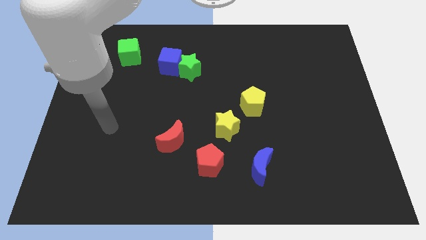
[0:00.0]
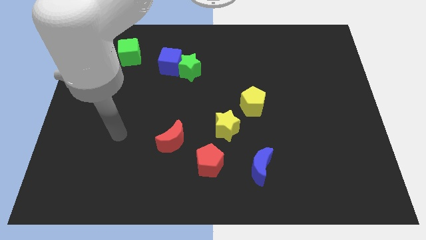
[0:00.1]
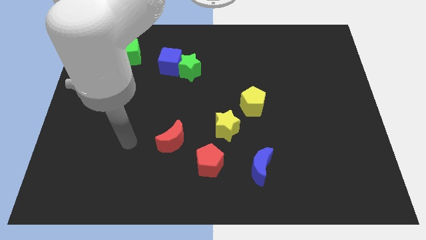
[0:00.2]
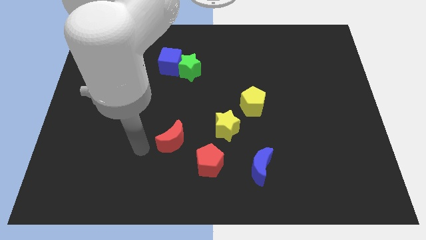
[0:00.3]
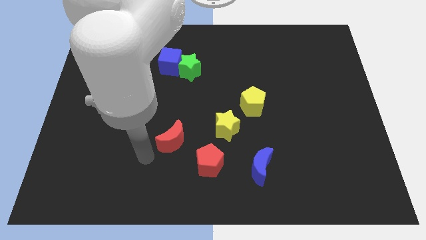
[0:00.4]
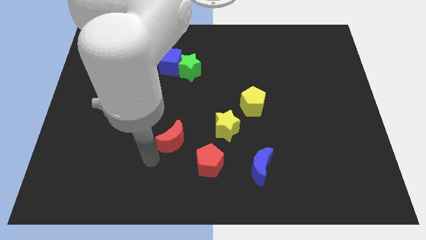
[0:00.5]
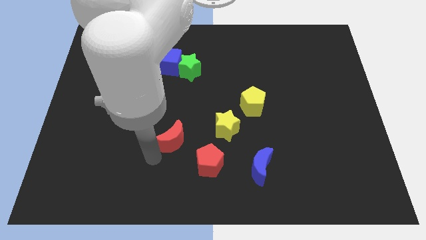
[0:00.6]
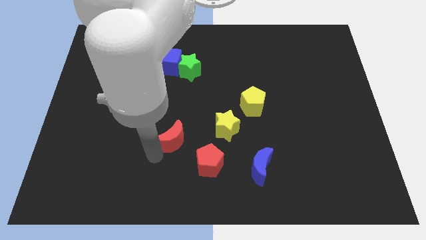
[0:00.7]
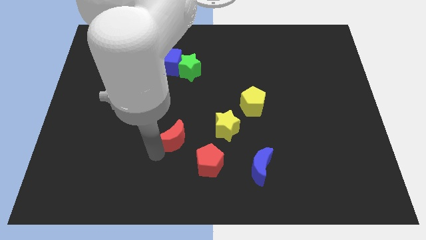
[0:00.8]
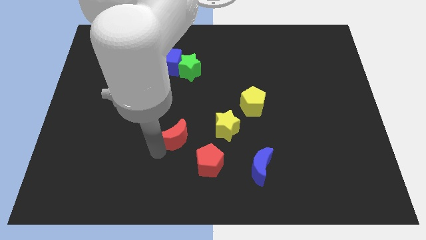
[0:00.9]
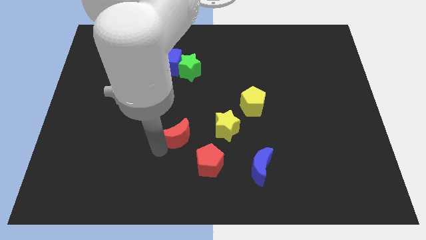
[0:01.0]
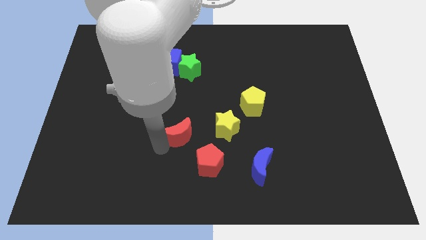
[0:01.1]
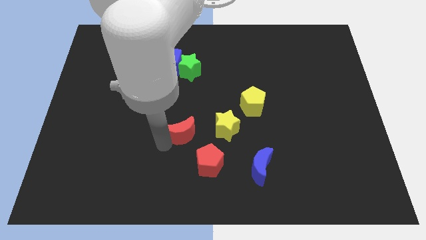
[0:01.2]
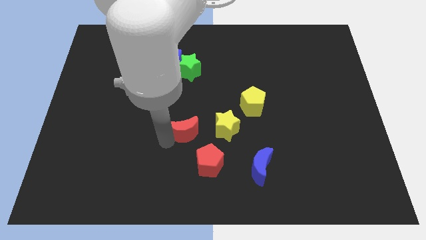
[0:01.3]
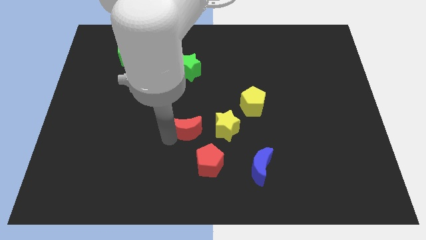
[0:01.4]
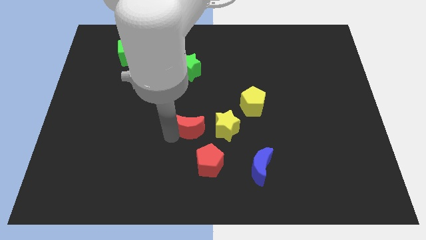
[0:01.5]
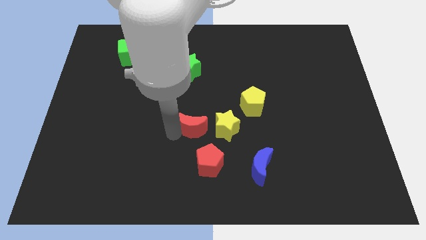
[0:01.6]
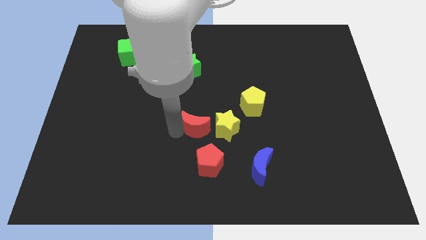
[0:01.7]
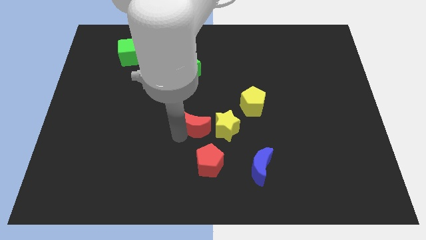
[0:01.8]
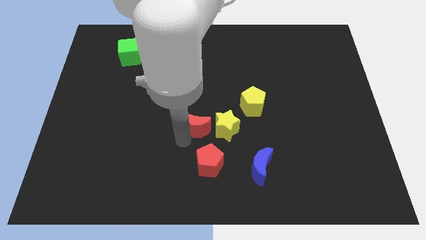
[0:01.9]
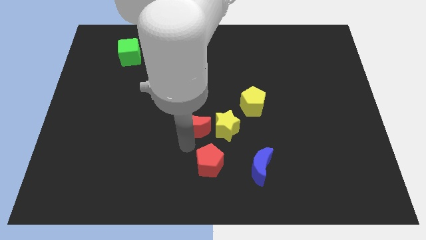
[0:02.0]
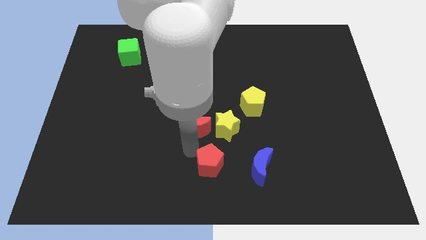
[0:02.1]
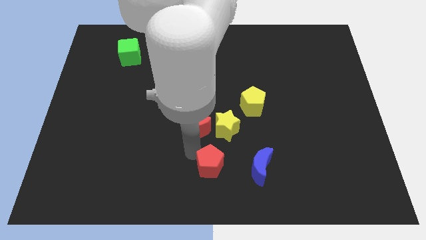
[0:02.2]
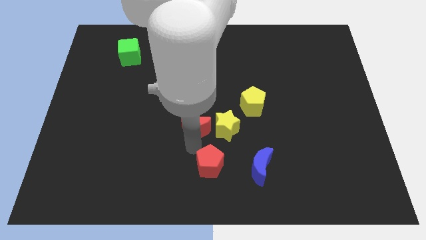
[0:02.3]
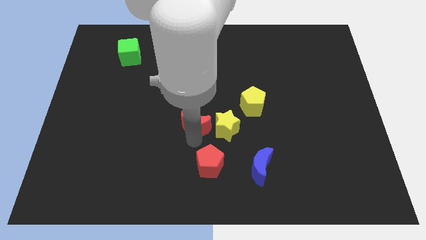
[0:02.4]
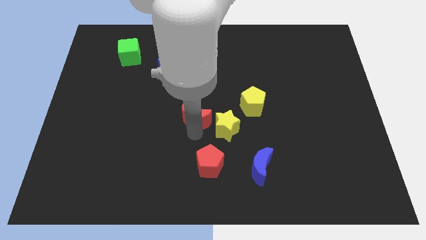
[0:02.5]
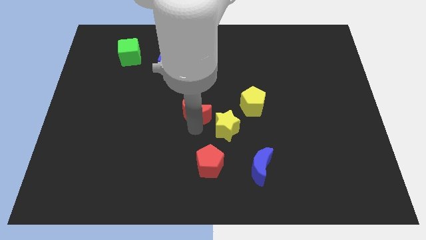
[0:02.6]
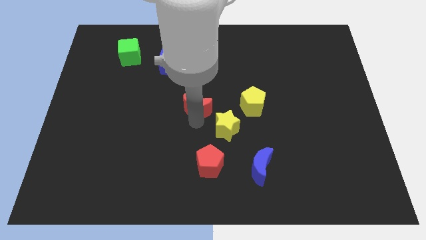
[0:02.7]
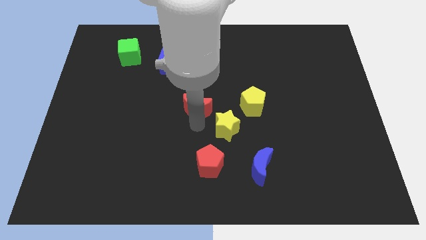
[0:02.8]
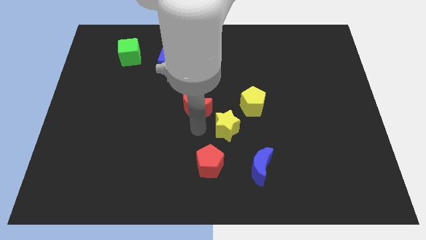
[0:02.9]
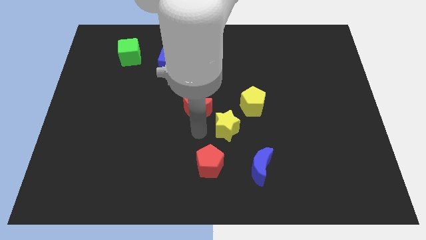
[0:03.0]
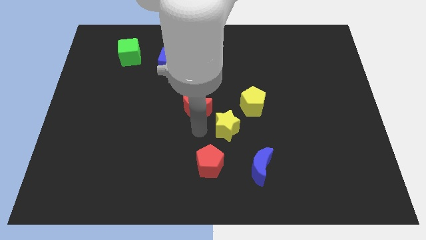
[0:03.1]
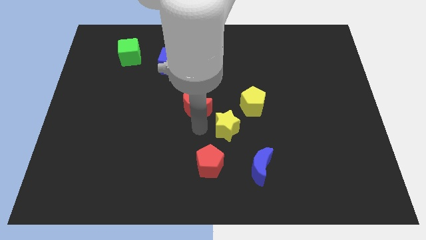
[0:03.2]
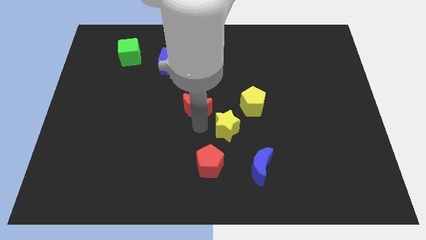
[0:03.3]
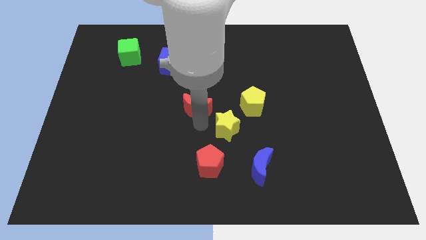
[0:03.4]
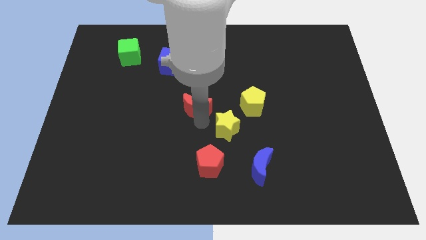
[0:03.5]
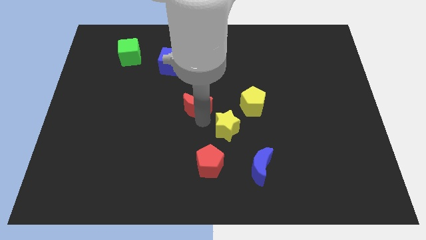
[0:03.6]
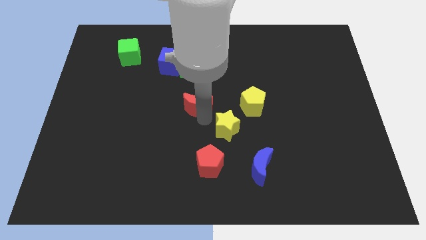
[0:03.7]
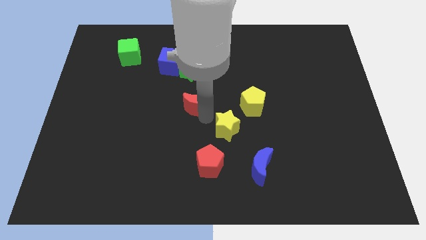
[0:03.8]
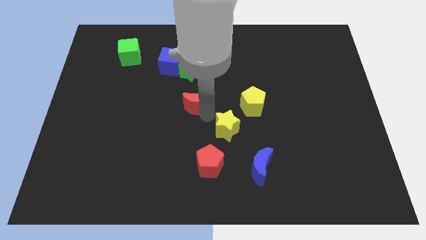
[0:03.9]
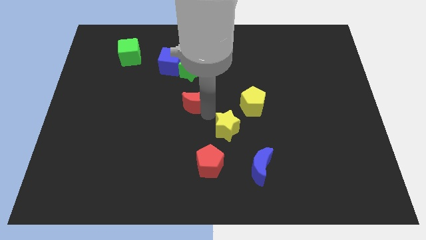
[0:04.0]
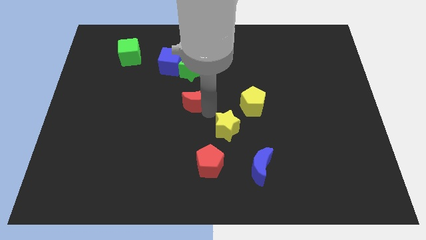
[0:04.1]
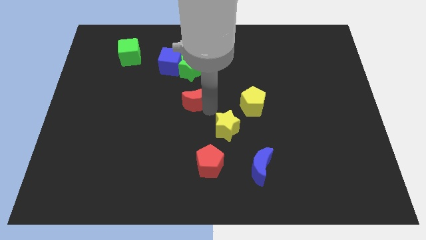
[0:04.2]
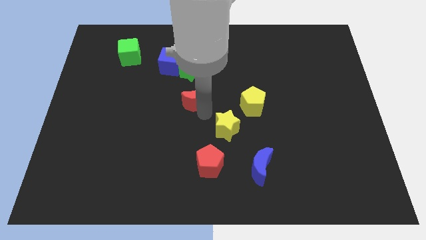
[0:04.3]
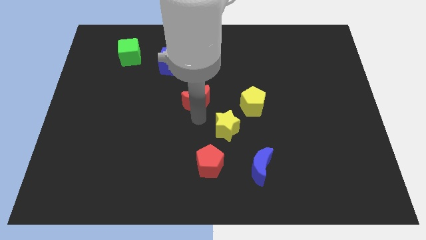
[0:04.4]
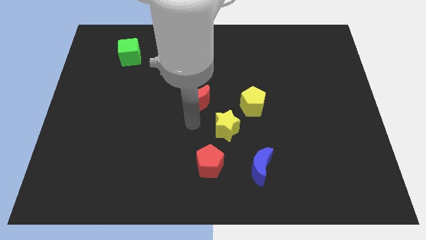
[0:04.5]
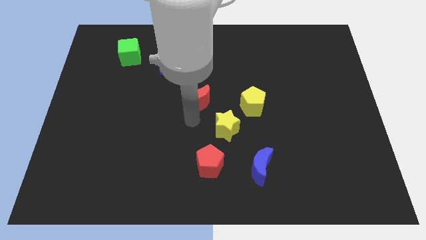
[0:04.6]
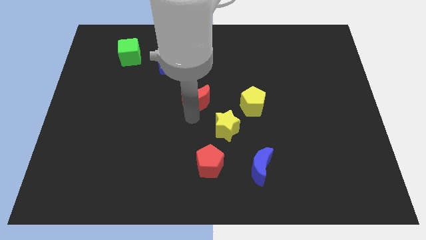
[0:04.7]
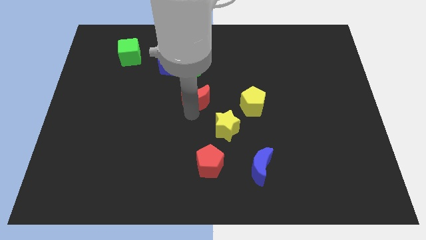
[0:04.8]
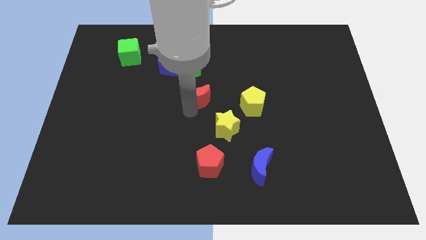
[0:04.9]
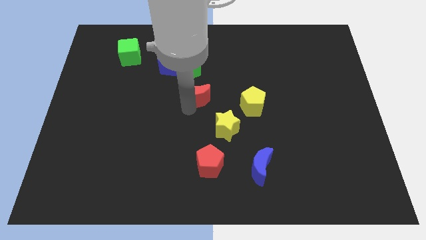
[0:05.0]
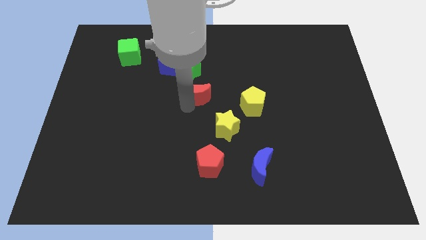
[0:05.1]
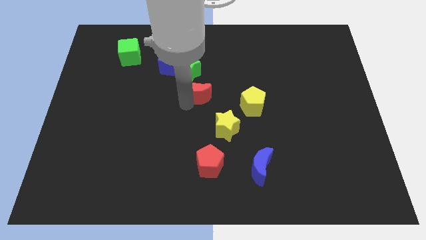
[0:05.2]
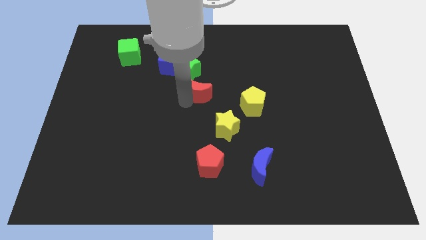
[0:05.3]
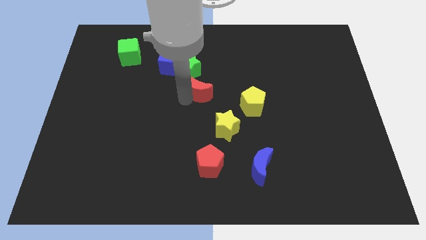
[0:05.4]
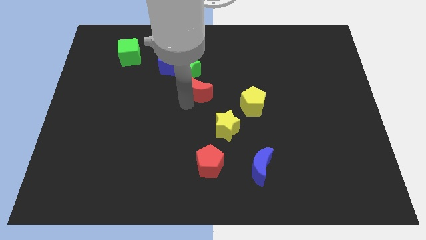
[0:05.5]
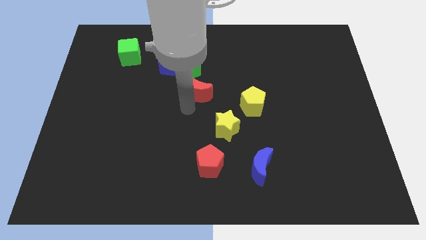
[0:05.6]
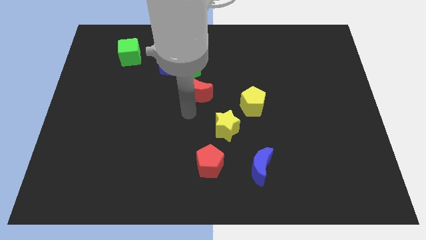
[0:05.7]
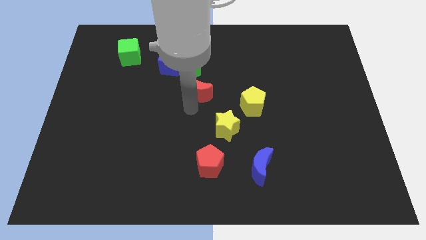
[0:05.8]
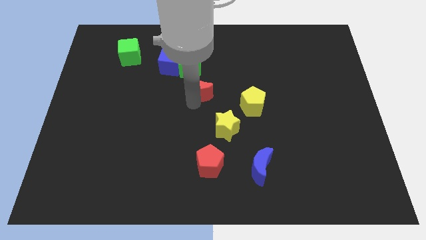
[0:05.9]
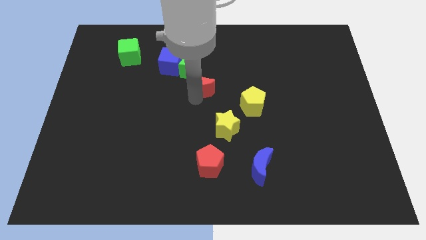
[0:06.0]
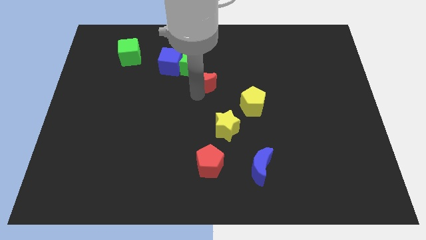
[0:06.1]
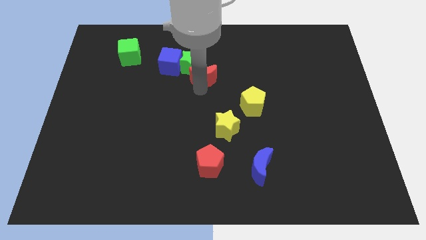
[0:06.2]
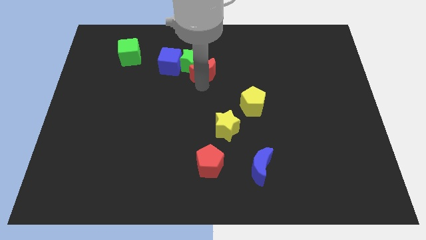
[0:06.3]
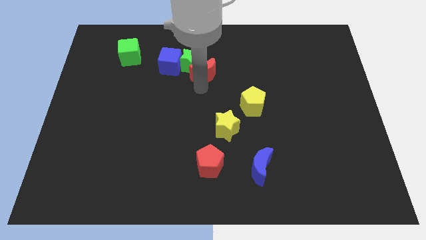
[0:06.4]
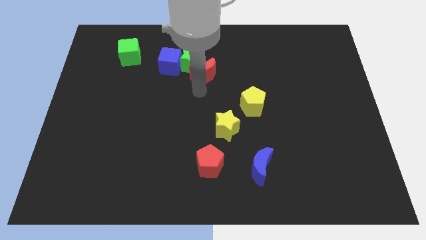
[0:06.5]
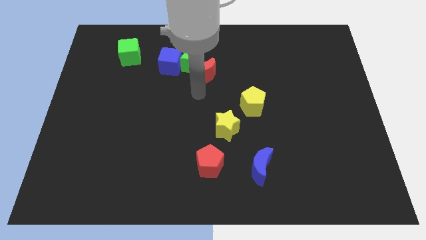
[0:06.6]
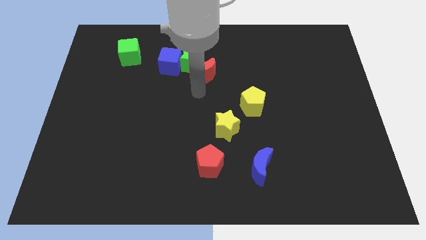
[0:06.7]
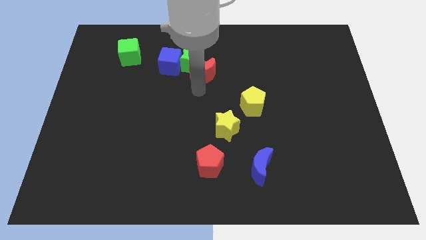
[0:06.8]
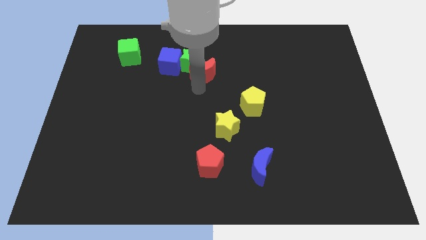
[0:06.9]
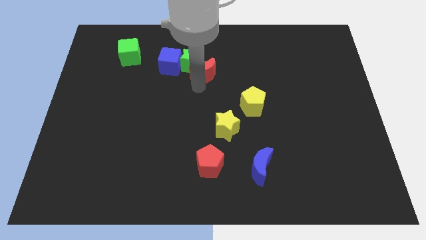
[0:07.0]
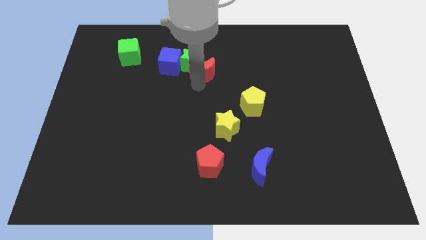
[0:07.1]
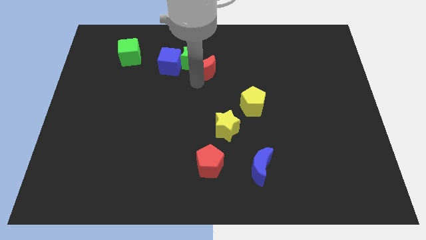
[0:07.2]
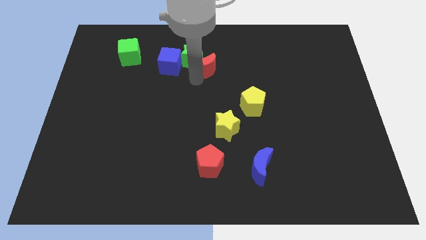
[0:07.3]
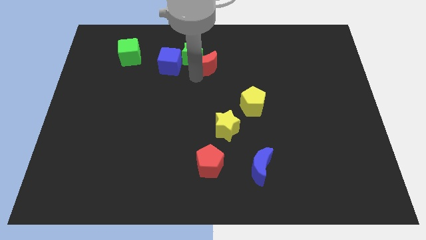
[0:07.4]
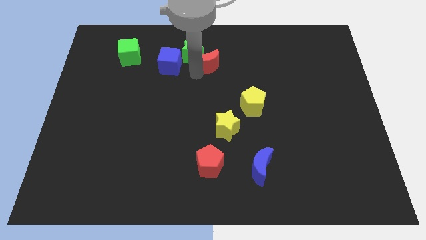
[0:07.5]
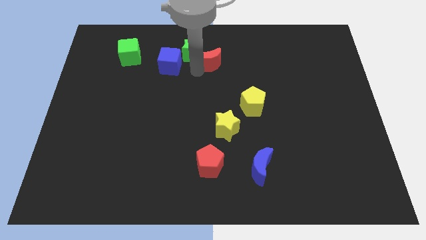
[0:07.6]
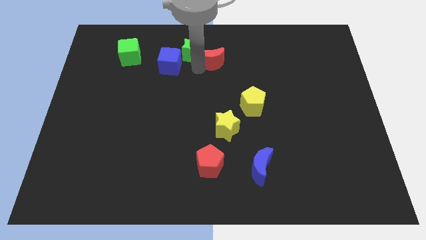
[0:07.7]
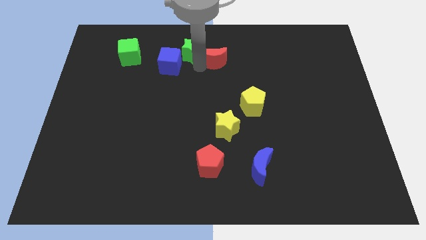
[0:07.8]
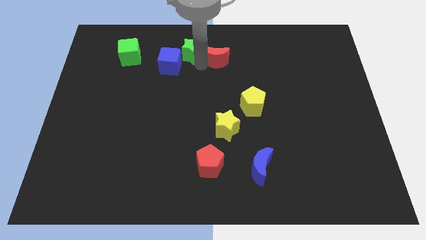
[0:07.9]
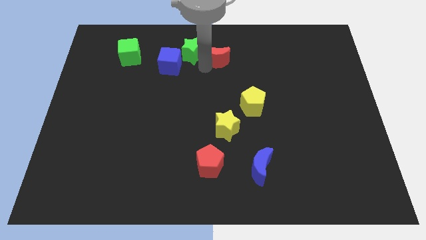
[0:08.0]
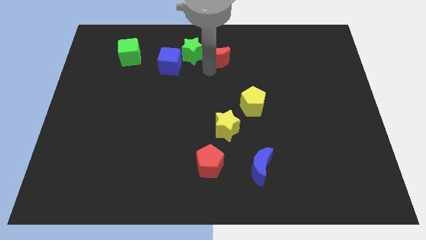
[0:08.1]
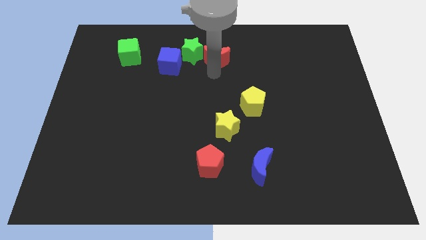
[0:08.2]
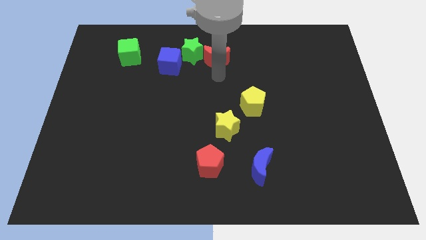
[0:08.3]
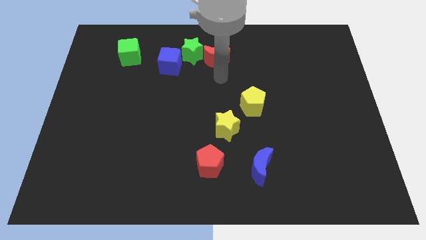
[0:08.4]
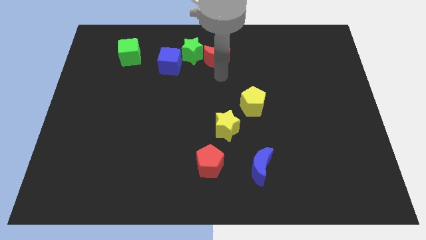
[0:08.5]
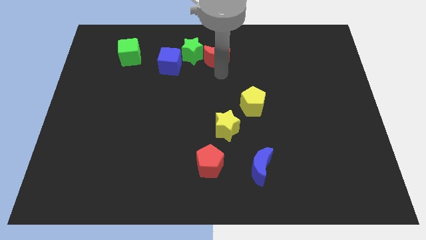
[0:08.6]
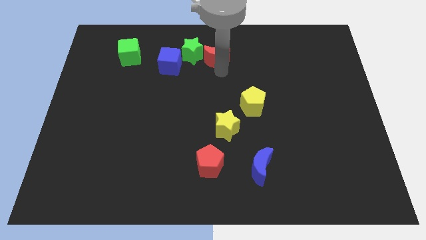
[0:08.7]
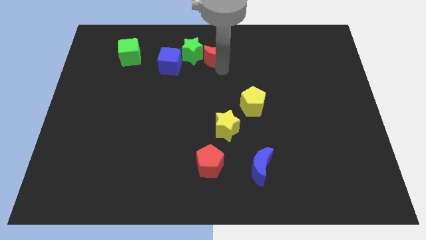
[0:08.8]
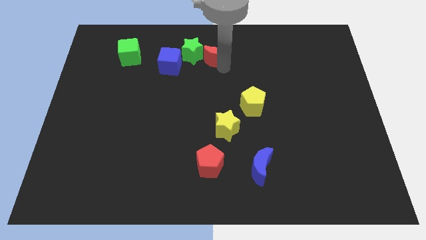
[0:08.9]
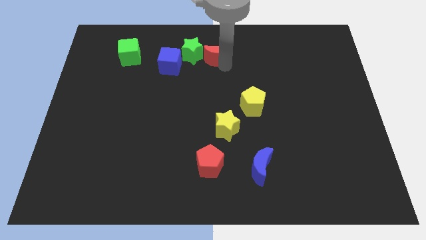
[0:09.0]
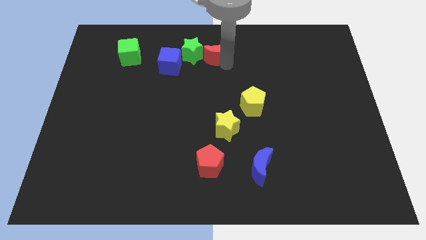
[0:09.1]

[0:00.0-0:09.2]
put the red moon to the towards your base
